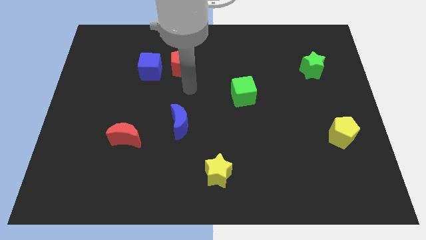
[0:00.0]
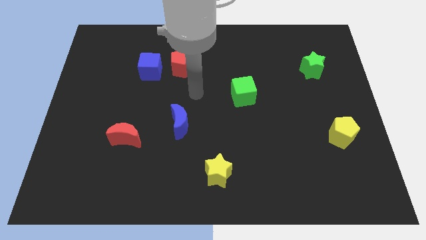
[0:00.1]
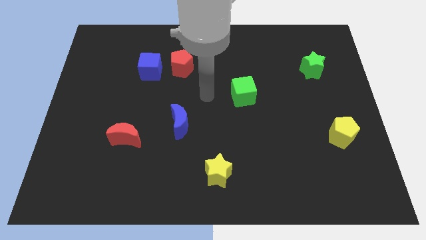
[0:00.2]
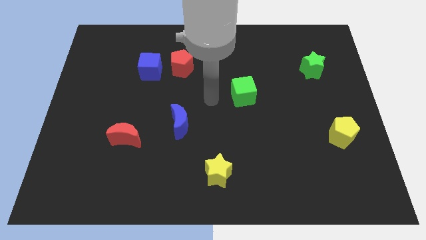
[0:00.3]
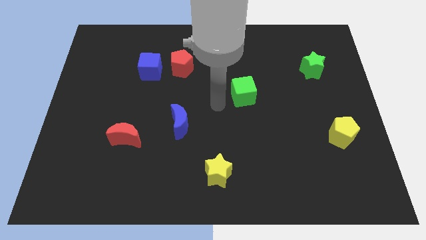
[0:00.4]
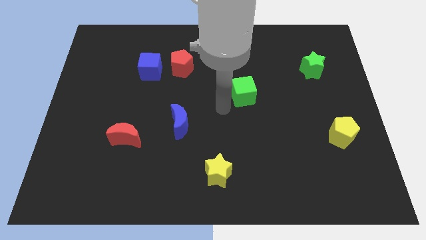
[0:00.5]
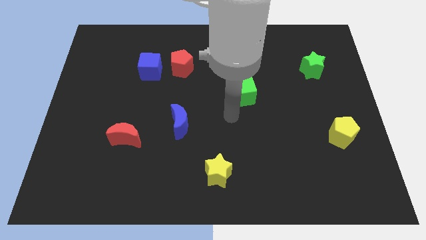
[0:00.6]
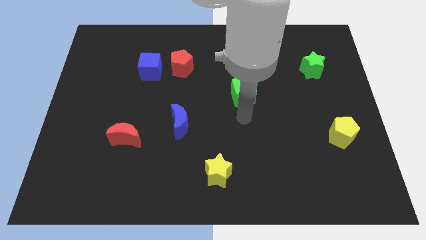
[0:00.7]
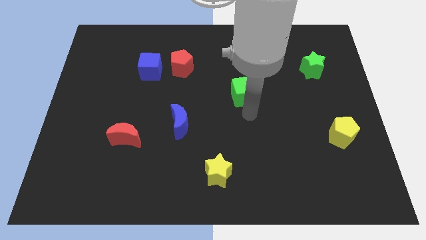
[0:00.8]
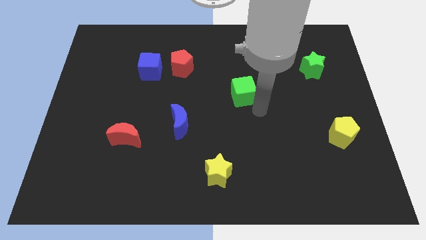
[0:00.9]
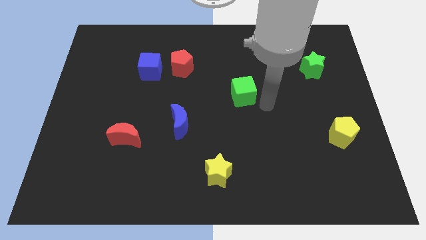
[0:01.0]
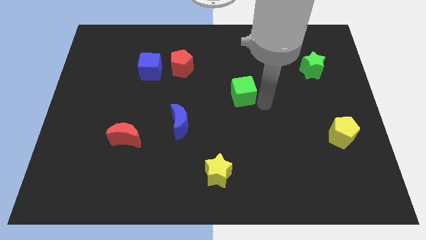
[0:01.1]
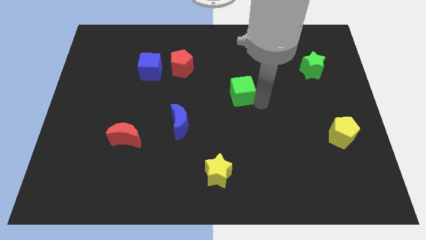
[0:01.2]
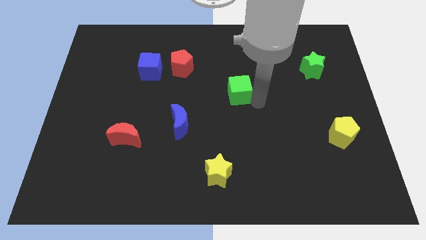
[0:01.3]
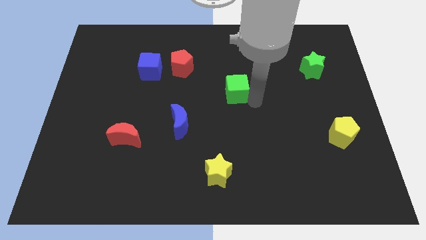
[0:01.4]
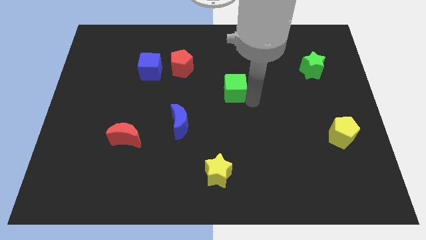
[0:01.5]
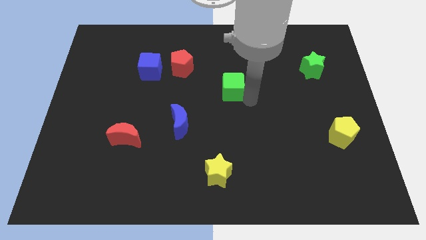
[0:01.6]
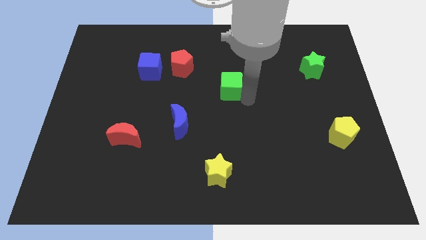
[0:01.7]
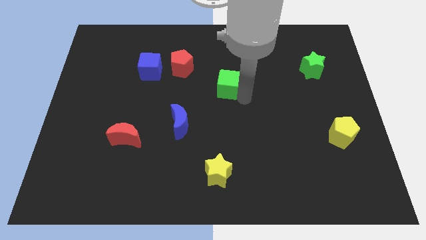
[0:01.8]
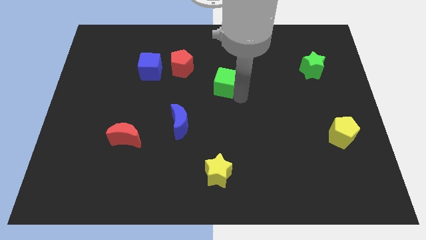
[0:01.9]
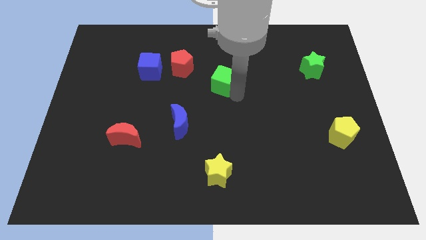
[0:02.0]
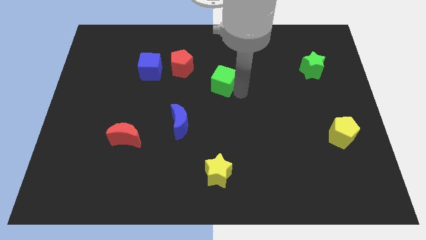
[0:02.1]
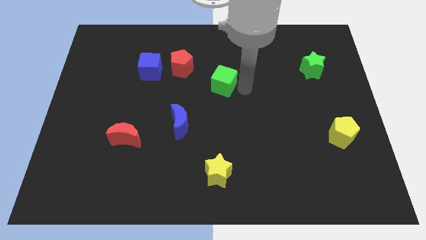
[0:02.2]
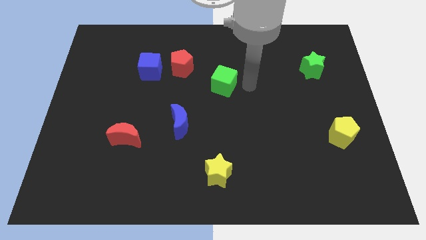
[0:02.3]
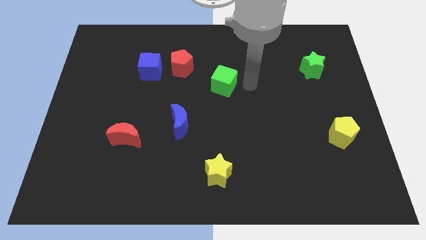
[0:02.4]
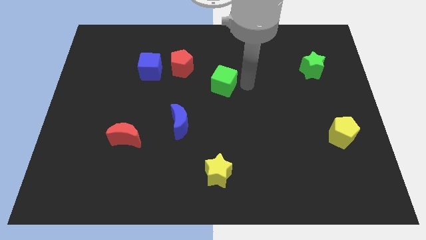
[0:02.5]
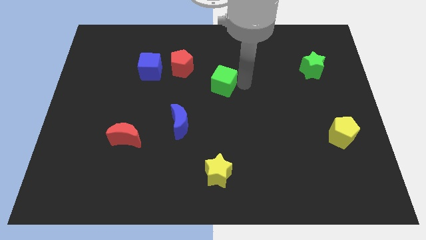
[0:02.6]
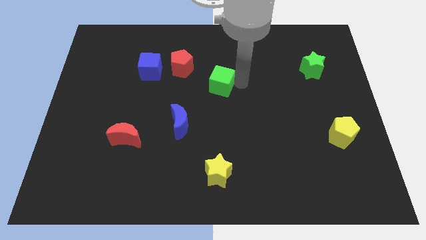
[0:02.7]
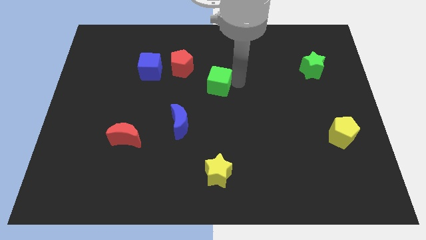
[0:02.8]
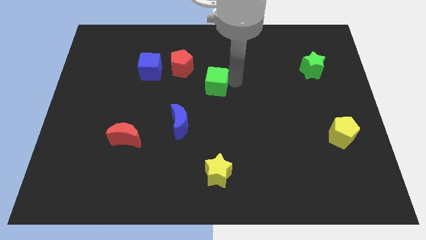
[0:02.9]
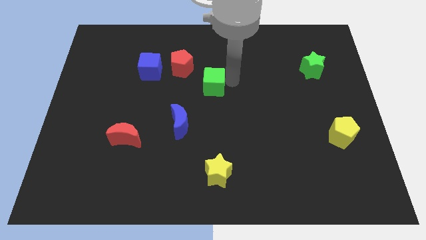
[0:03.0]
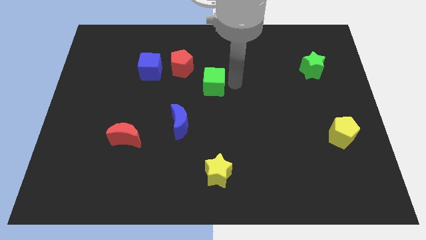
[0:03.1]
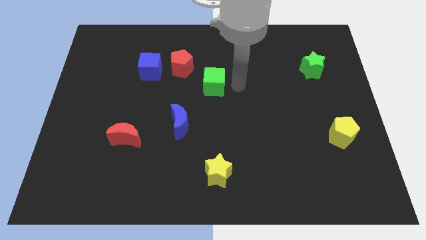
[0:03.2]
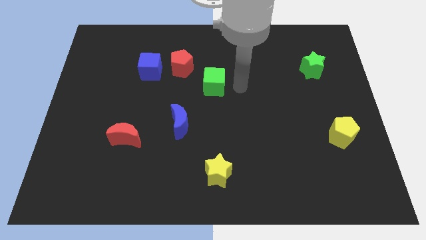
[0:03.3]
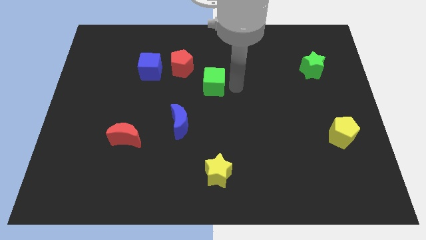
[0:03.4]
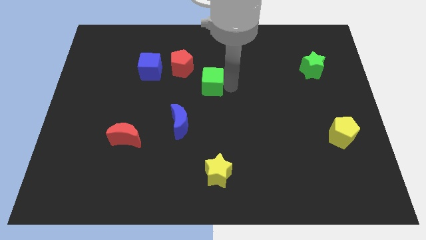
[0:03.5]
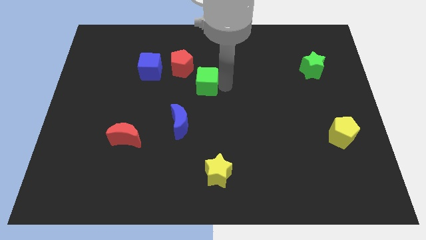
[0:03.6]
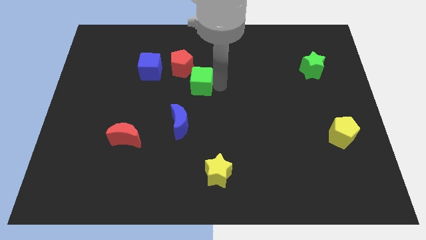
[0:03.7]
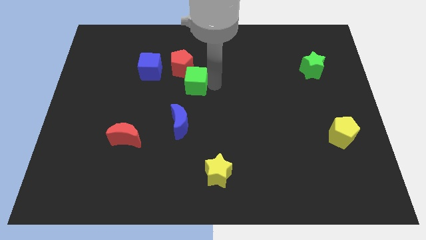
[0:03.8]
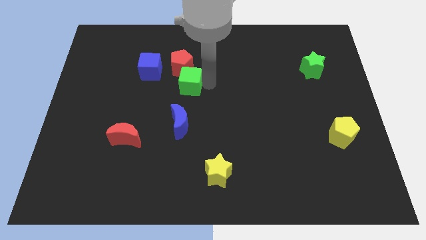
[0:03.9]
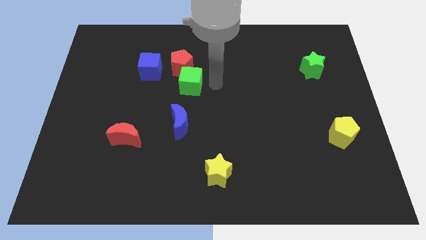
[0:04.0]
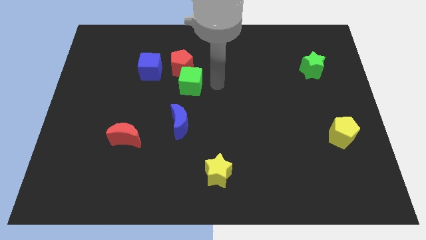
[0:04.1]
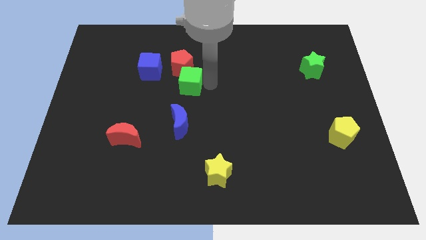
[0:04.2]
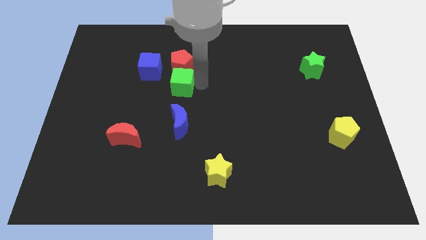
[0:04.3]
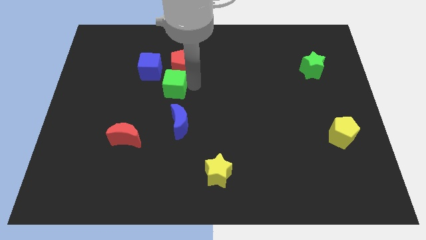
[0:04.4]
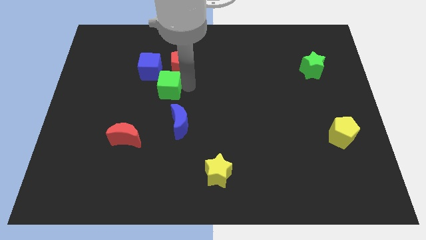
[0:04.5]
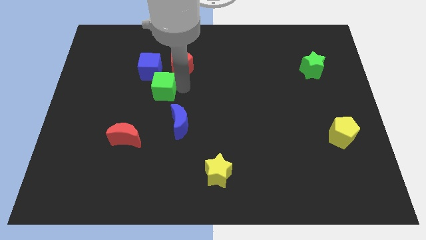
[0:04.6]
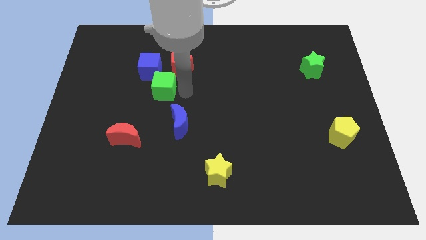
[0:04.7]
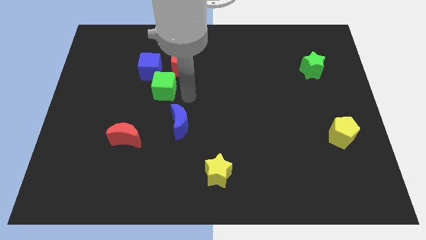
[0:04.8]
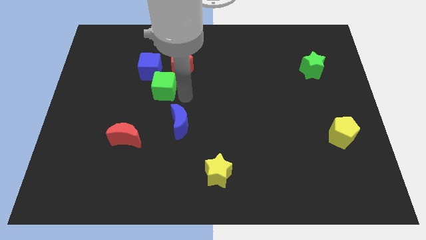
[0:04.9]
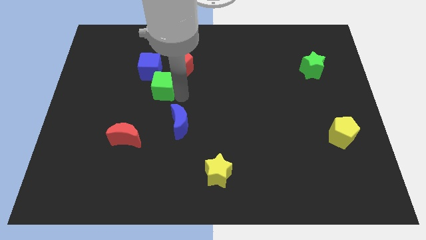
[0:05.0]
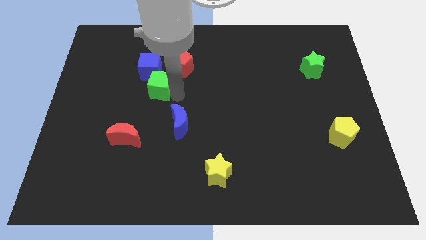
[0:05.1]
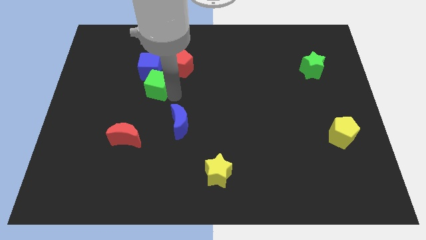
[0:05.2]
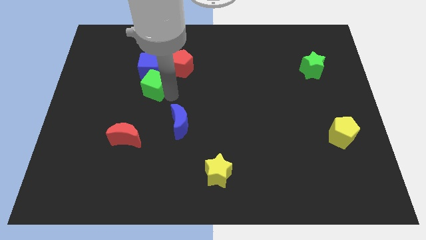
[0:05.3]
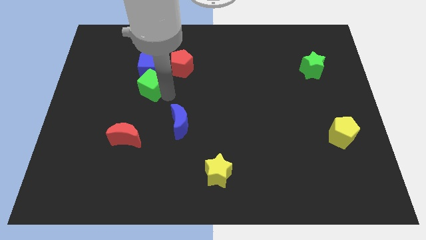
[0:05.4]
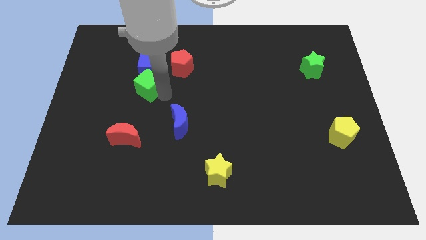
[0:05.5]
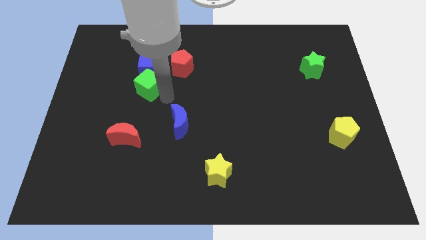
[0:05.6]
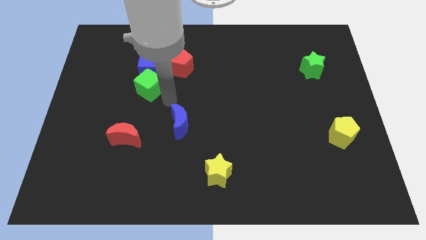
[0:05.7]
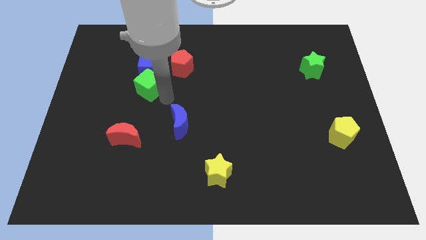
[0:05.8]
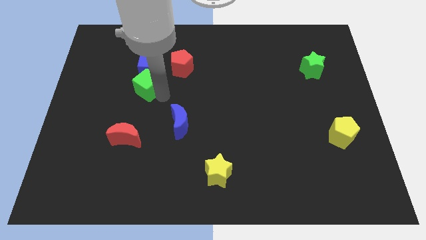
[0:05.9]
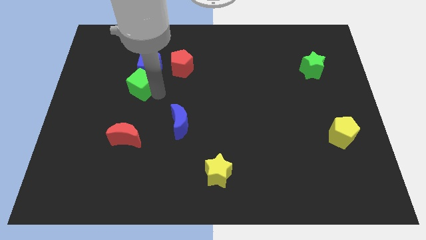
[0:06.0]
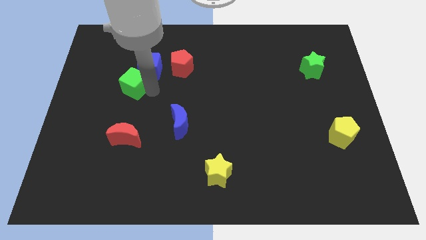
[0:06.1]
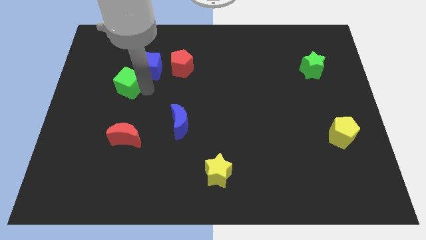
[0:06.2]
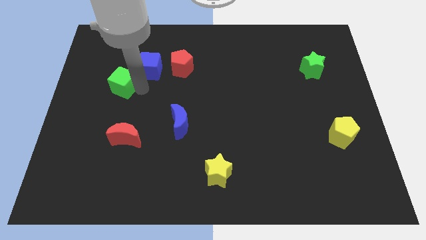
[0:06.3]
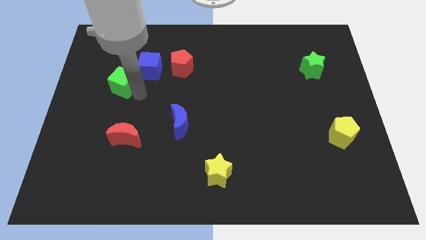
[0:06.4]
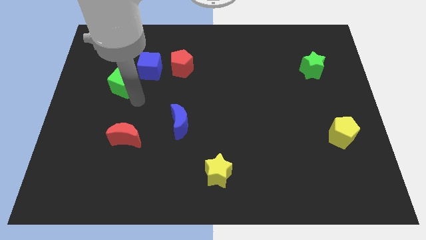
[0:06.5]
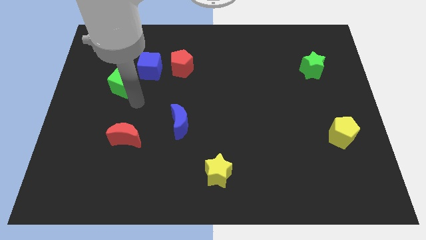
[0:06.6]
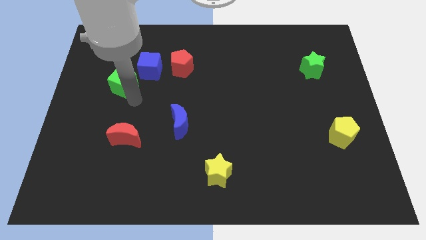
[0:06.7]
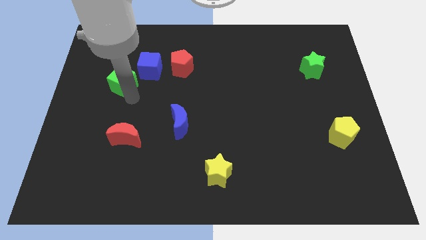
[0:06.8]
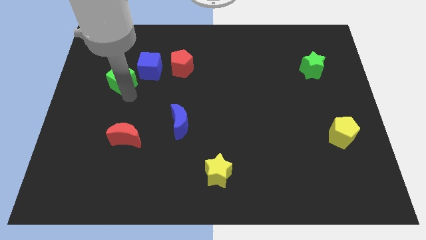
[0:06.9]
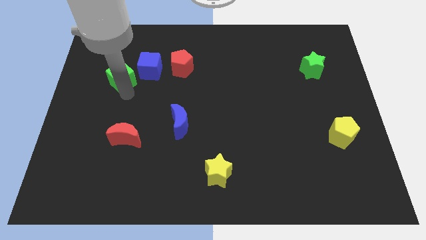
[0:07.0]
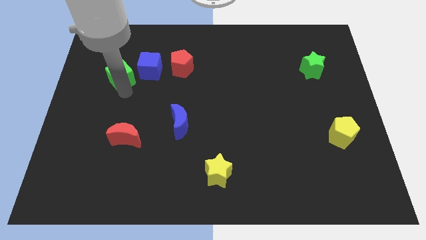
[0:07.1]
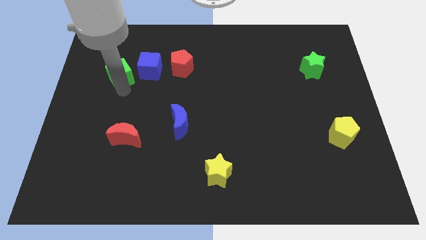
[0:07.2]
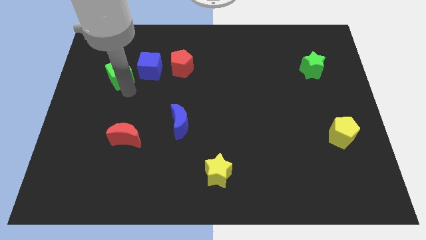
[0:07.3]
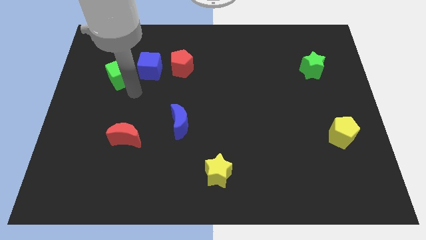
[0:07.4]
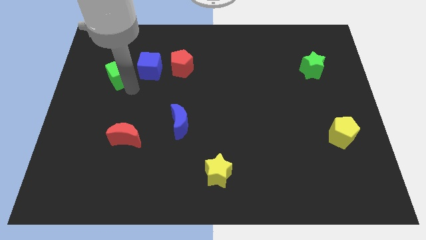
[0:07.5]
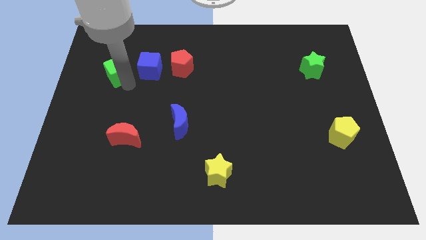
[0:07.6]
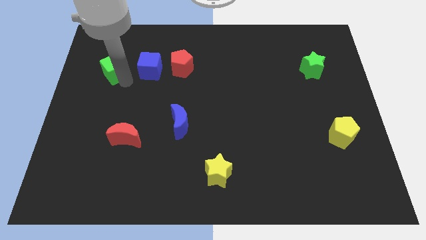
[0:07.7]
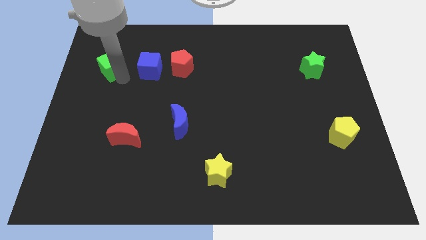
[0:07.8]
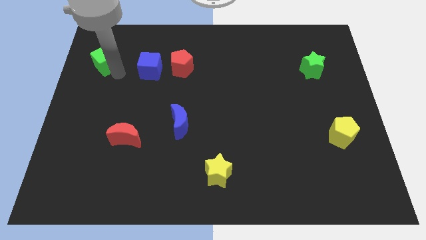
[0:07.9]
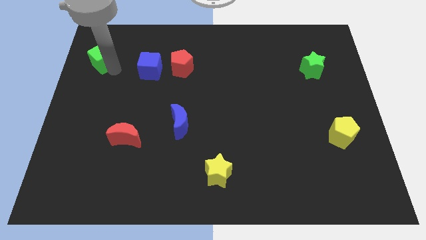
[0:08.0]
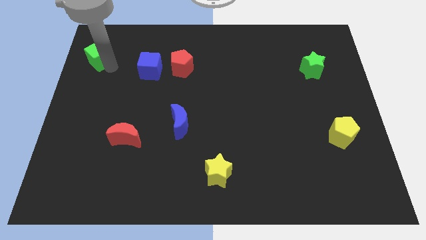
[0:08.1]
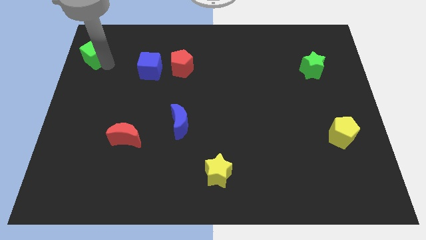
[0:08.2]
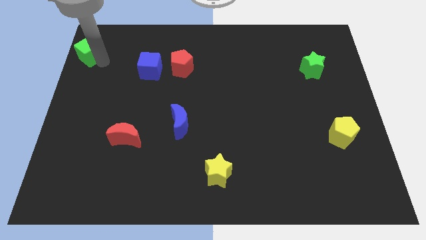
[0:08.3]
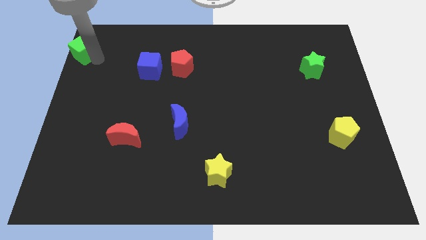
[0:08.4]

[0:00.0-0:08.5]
put the green cube to the top left corner
